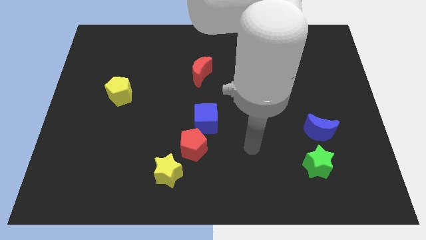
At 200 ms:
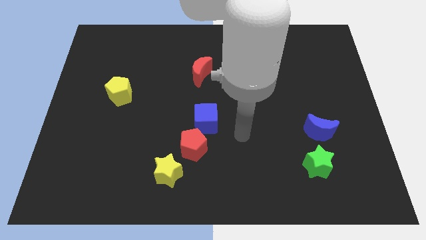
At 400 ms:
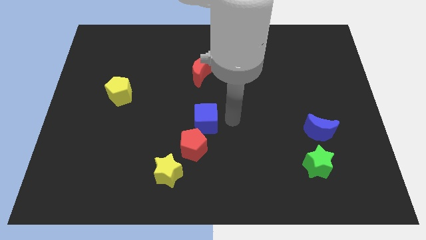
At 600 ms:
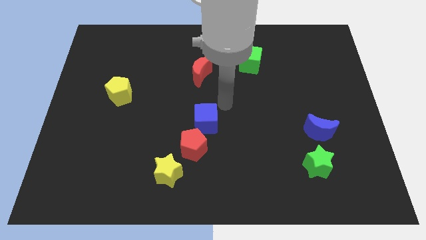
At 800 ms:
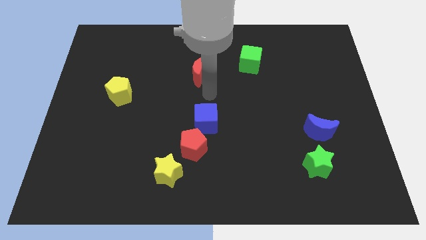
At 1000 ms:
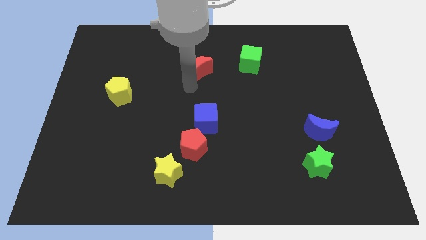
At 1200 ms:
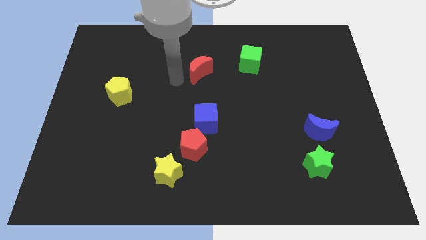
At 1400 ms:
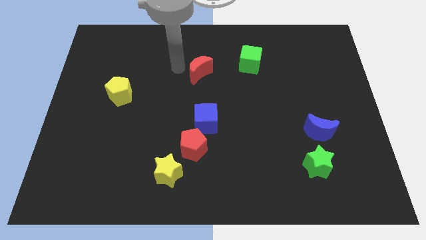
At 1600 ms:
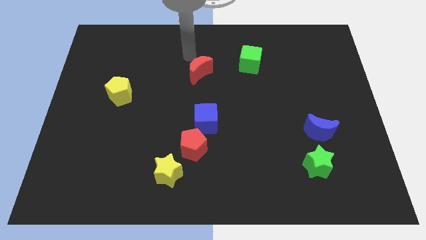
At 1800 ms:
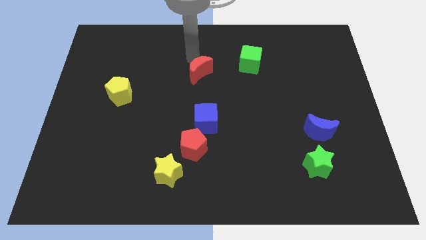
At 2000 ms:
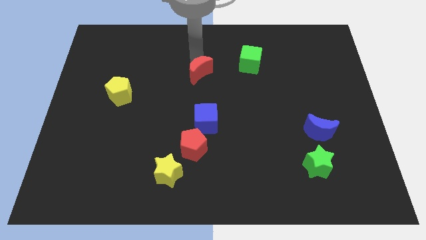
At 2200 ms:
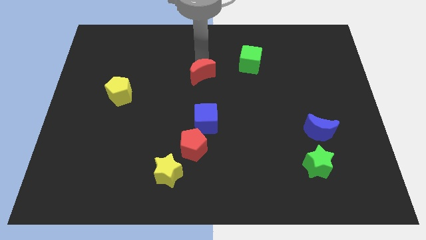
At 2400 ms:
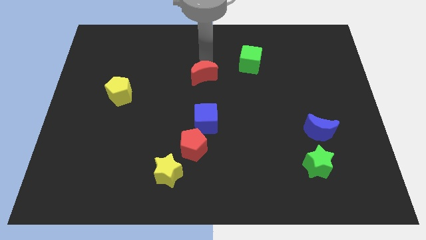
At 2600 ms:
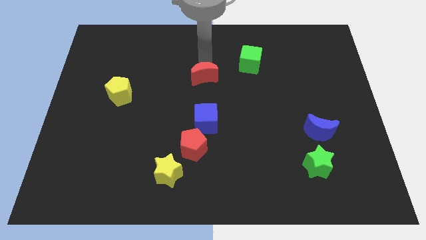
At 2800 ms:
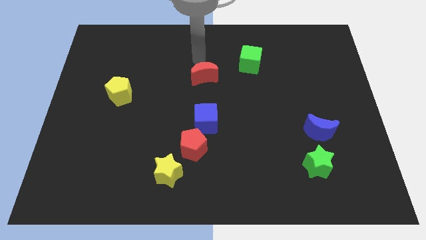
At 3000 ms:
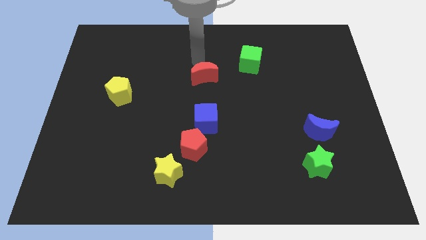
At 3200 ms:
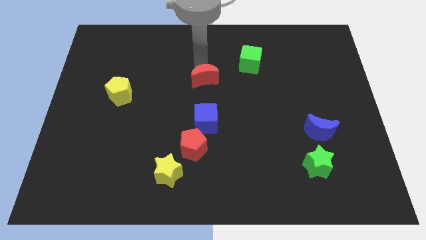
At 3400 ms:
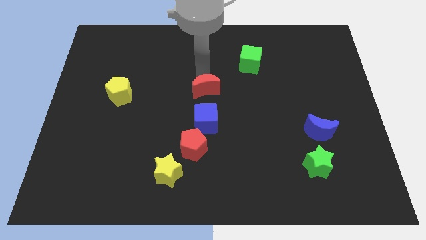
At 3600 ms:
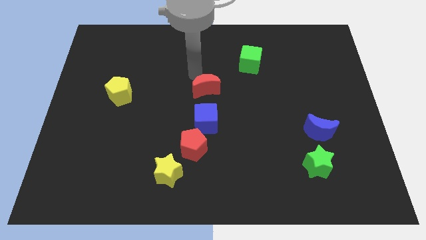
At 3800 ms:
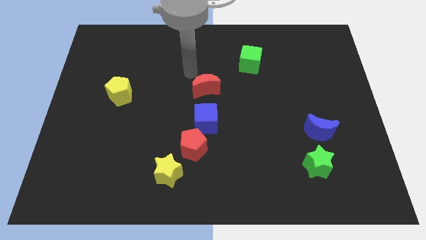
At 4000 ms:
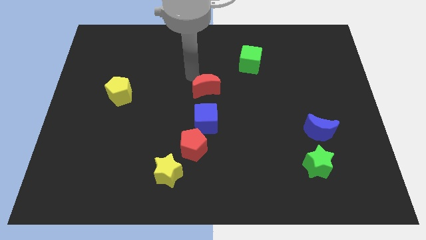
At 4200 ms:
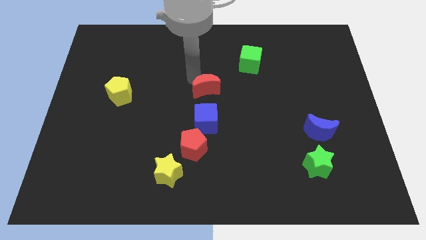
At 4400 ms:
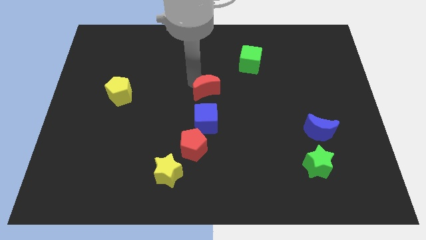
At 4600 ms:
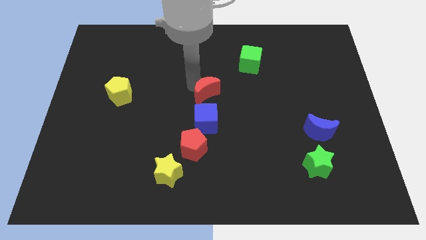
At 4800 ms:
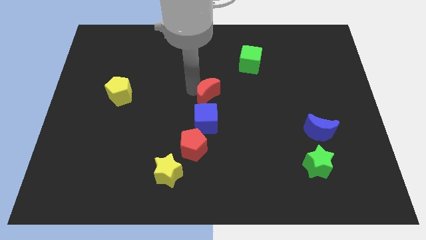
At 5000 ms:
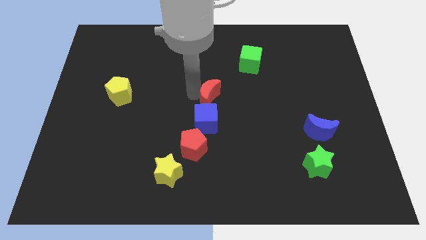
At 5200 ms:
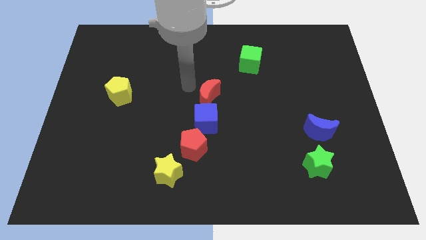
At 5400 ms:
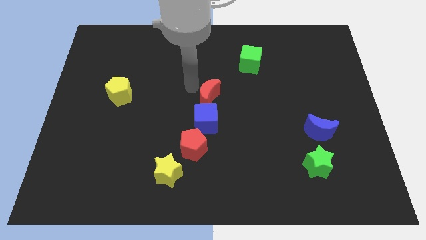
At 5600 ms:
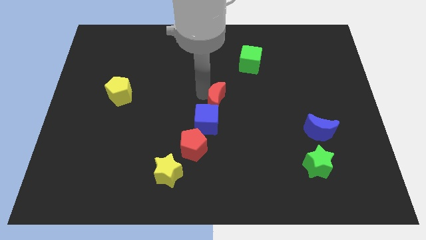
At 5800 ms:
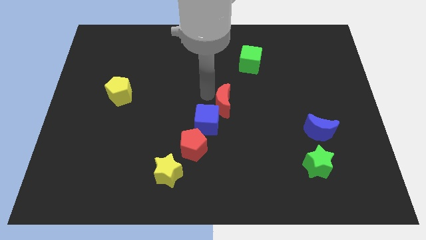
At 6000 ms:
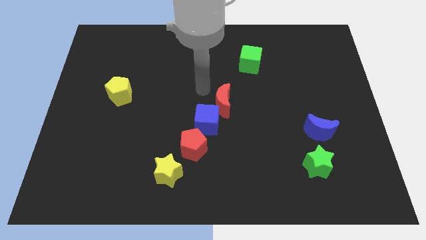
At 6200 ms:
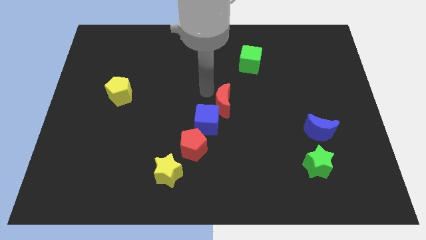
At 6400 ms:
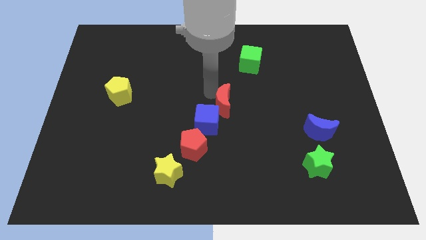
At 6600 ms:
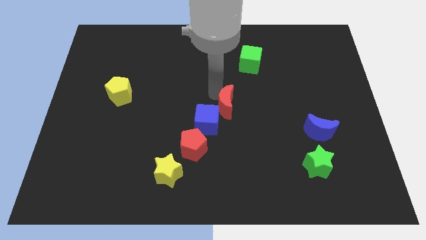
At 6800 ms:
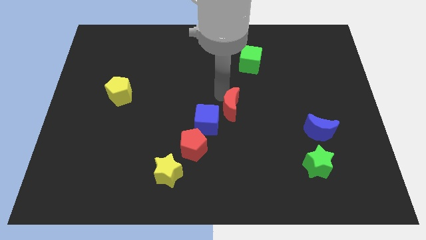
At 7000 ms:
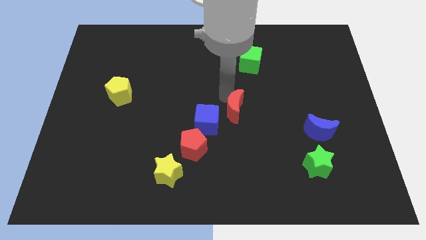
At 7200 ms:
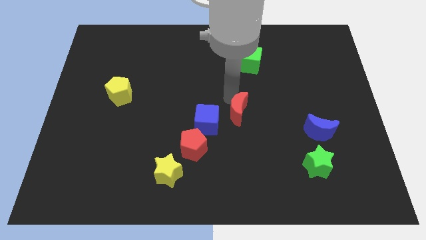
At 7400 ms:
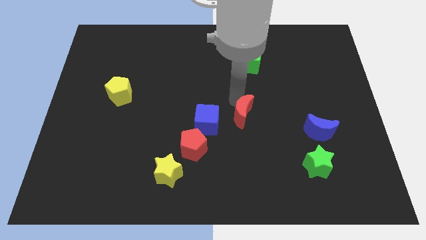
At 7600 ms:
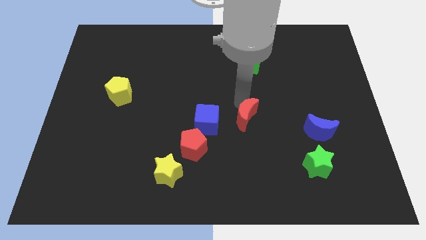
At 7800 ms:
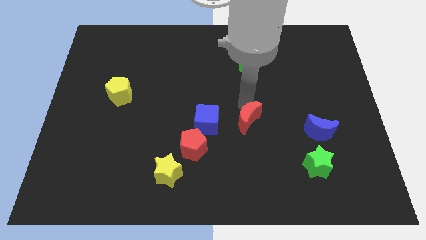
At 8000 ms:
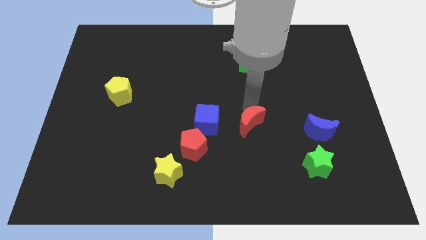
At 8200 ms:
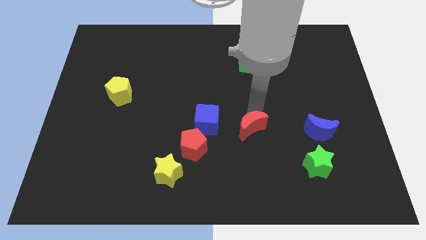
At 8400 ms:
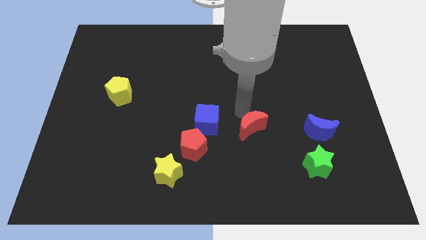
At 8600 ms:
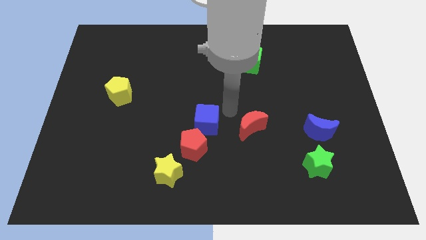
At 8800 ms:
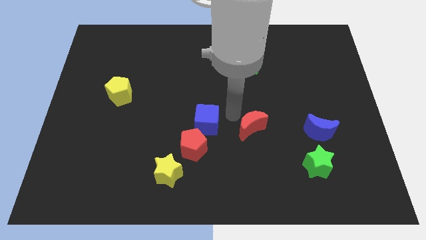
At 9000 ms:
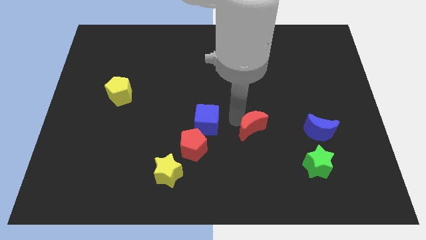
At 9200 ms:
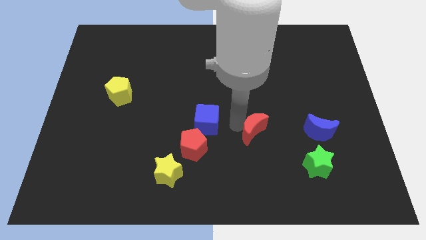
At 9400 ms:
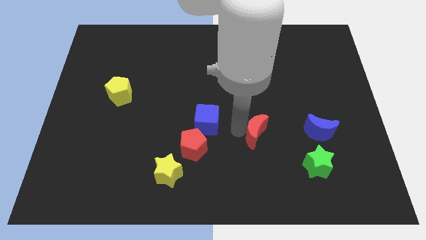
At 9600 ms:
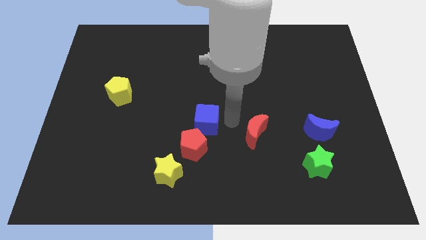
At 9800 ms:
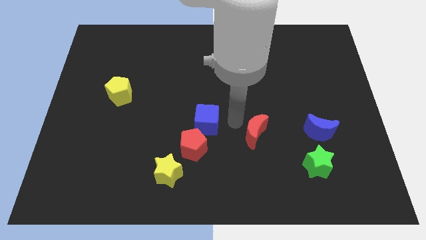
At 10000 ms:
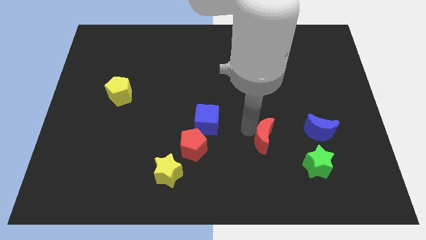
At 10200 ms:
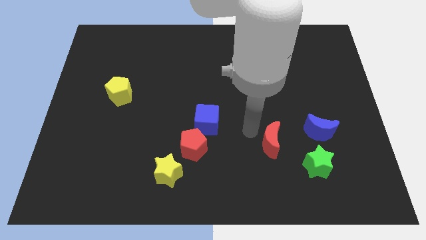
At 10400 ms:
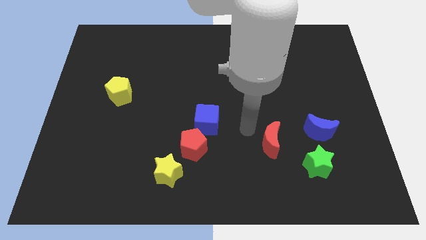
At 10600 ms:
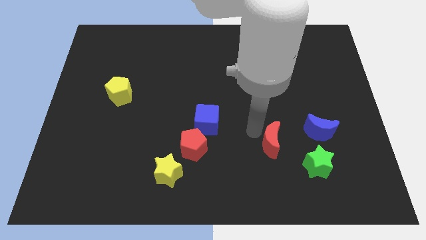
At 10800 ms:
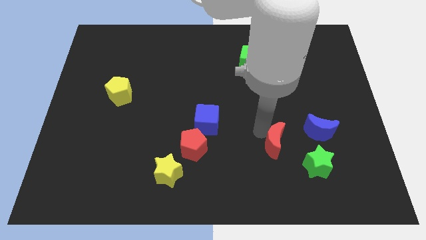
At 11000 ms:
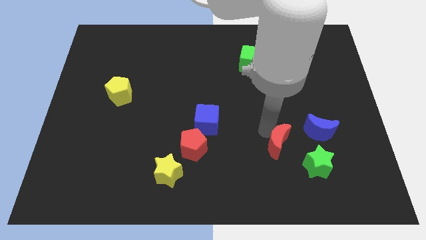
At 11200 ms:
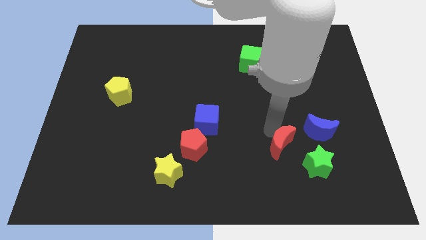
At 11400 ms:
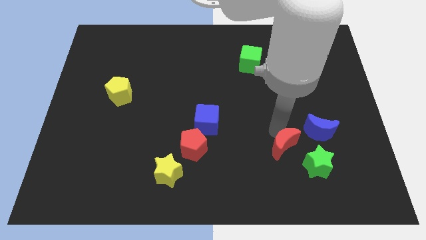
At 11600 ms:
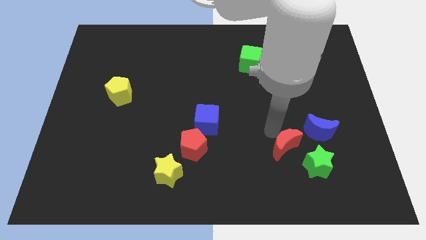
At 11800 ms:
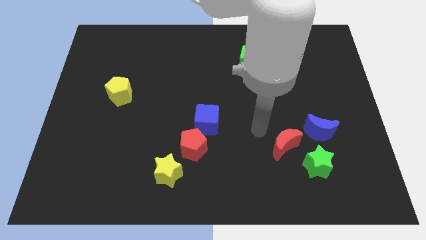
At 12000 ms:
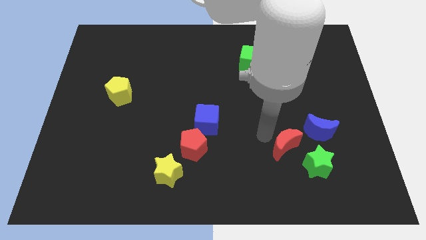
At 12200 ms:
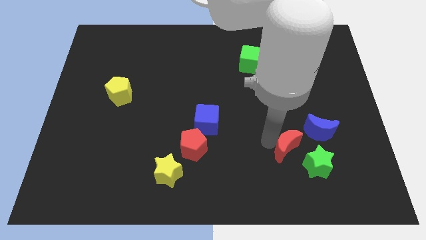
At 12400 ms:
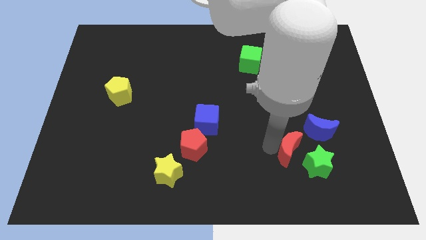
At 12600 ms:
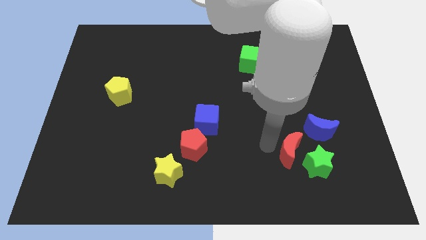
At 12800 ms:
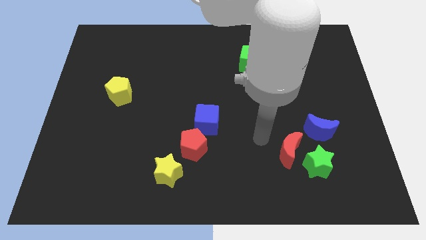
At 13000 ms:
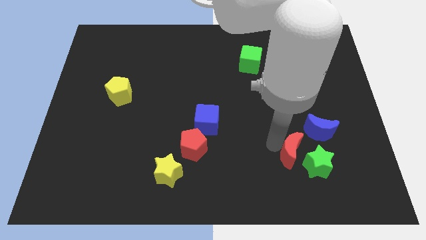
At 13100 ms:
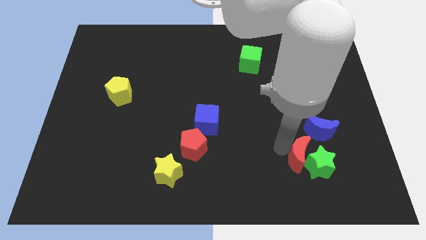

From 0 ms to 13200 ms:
slide the red moon towards the green star
